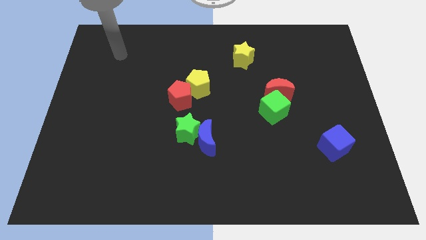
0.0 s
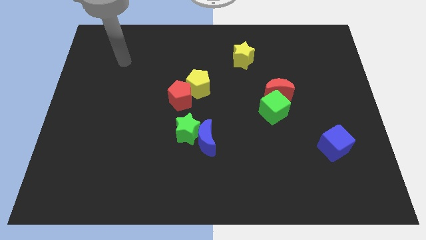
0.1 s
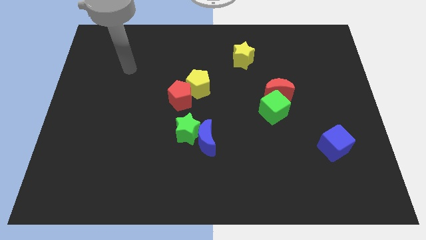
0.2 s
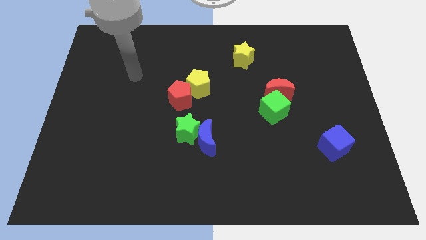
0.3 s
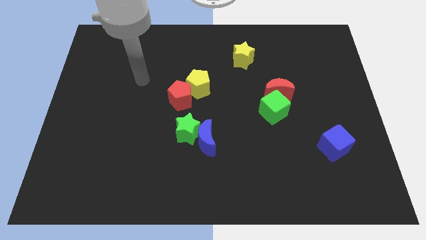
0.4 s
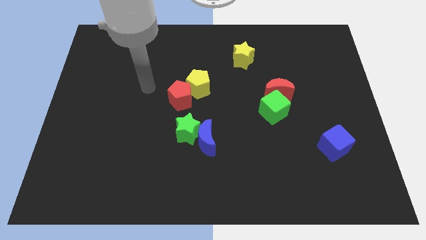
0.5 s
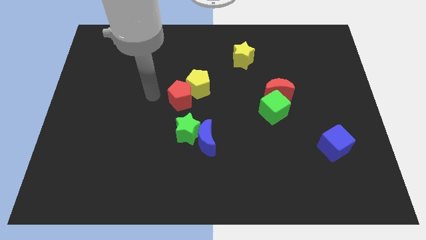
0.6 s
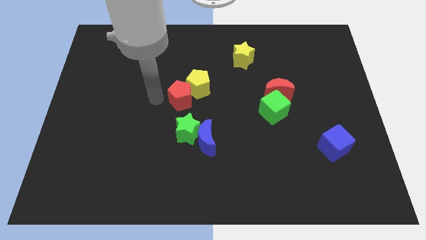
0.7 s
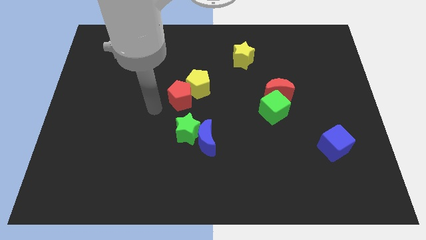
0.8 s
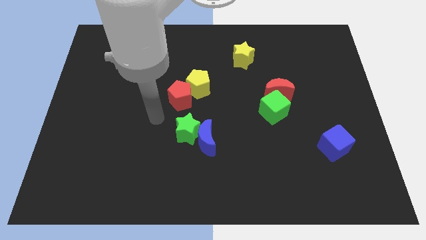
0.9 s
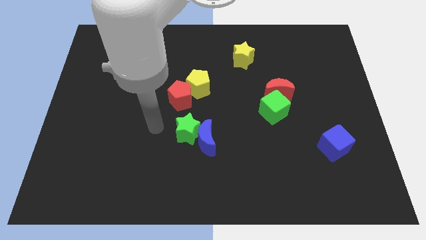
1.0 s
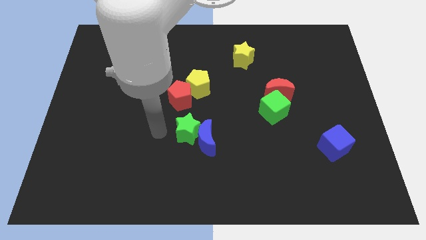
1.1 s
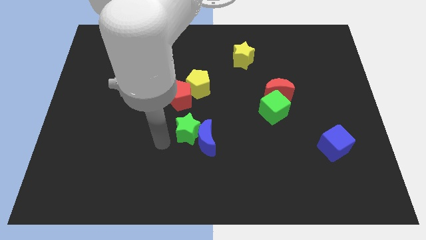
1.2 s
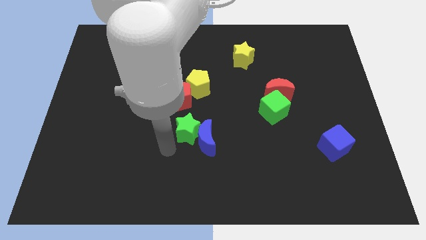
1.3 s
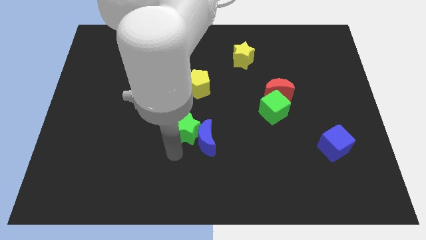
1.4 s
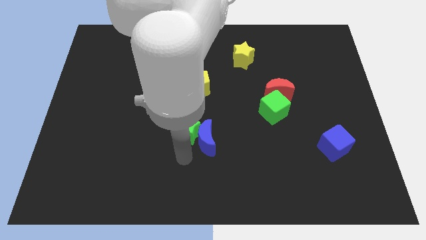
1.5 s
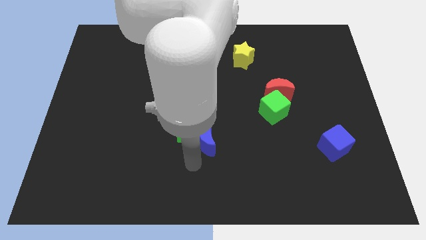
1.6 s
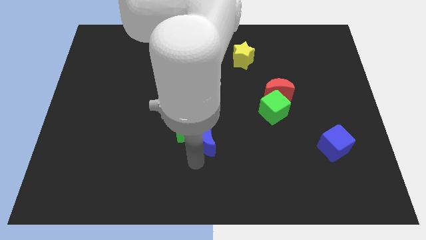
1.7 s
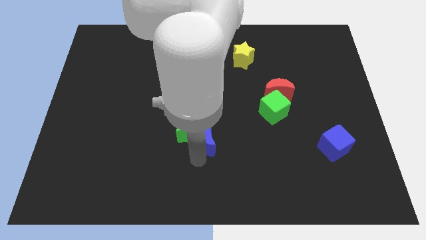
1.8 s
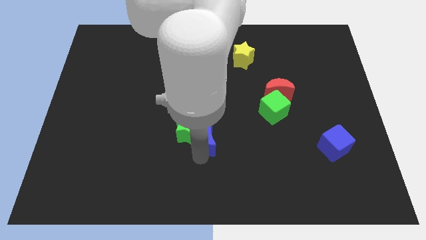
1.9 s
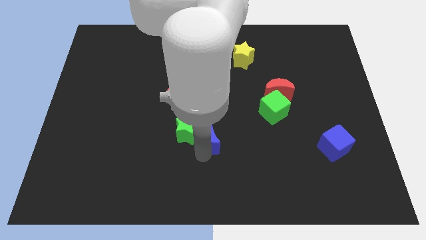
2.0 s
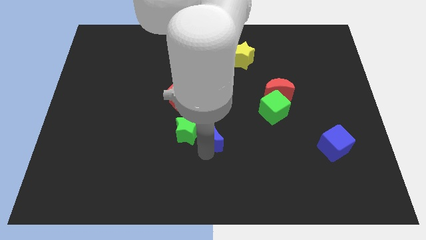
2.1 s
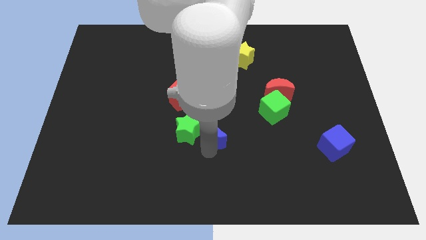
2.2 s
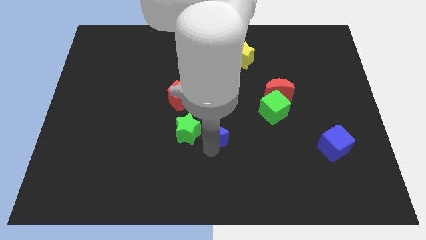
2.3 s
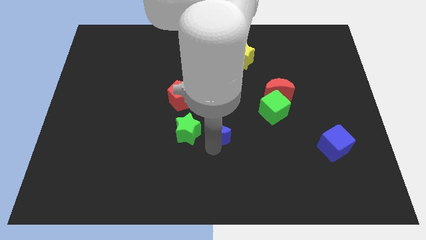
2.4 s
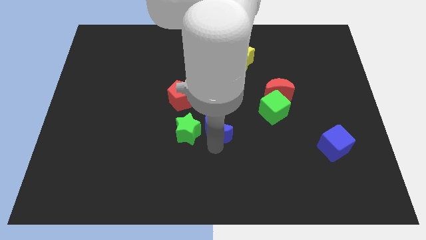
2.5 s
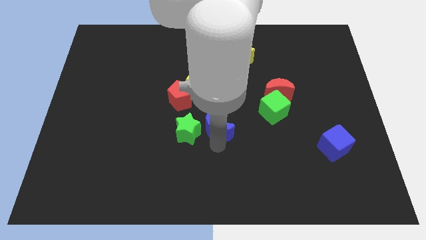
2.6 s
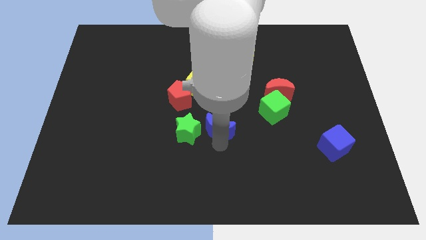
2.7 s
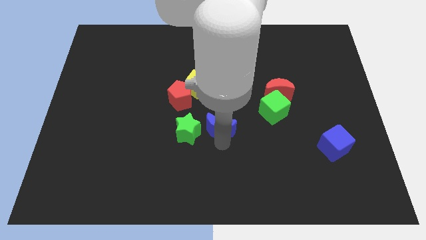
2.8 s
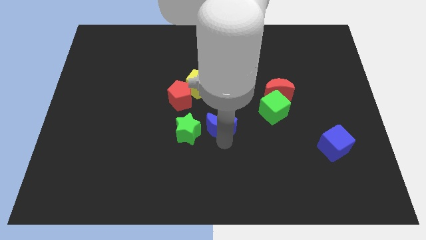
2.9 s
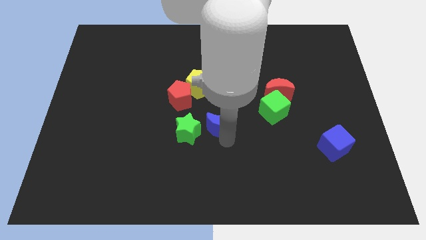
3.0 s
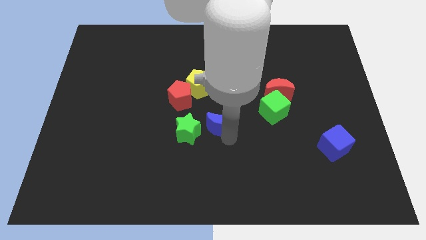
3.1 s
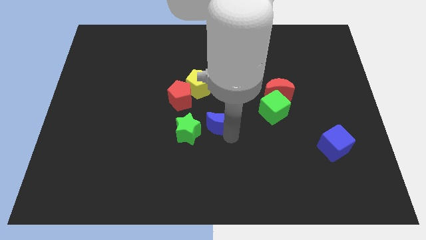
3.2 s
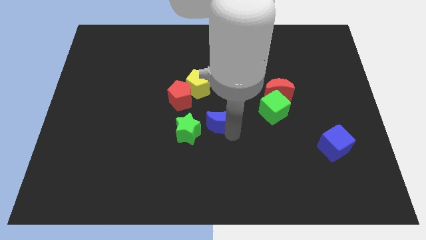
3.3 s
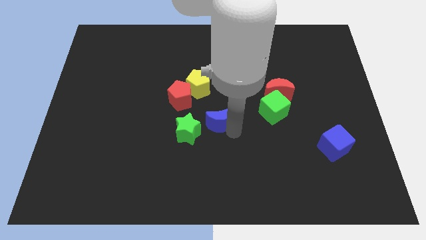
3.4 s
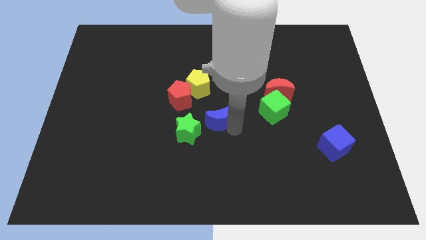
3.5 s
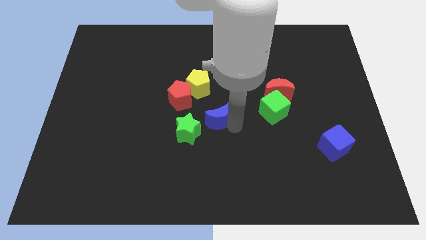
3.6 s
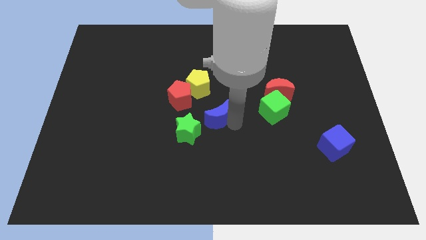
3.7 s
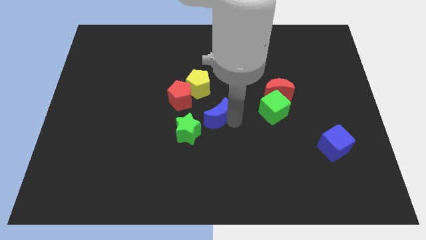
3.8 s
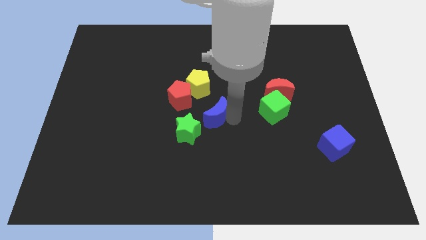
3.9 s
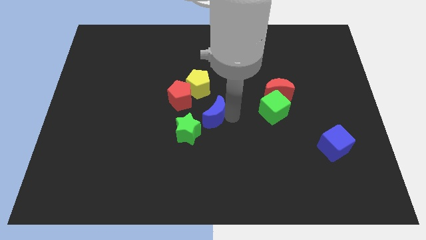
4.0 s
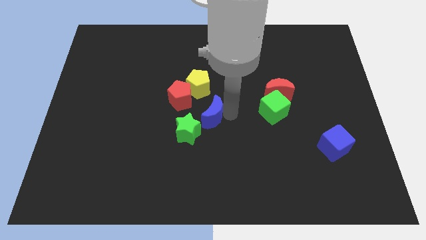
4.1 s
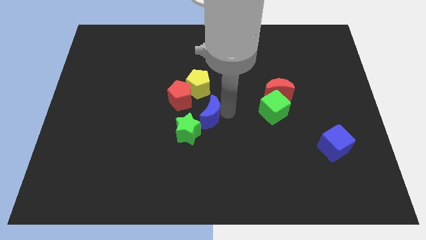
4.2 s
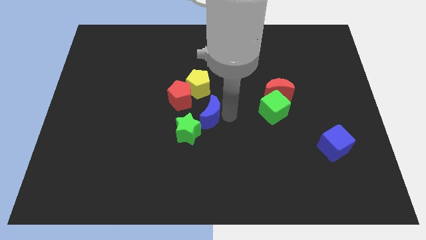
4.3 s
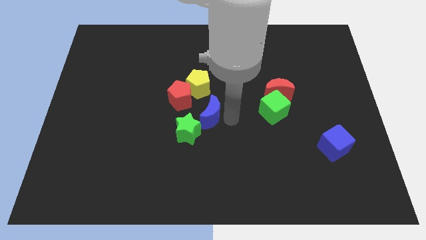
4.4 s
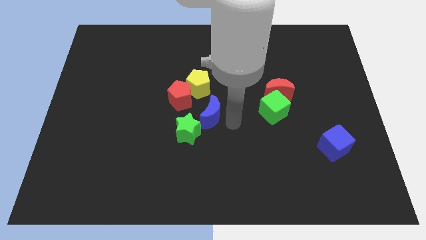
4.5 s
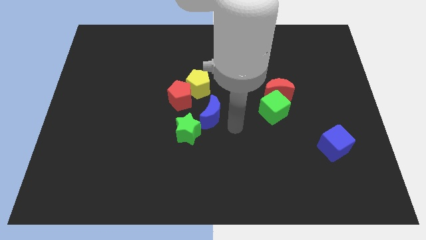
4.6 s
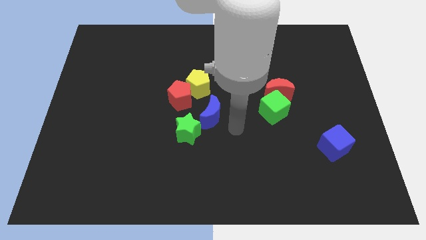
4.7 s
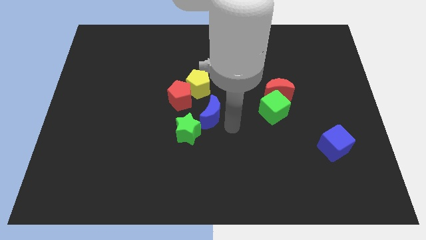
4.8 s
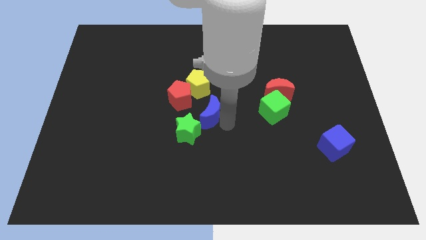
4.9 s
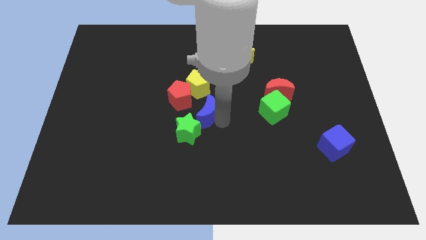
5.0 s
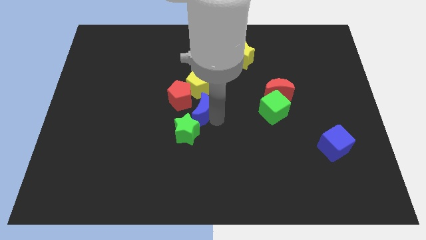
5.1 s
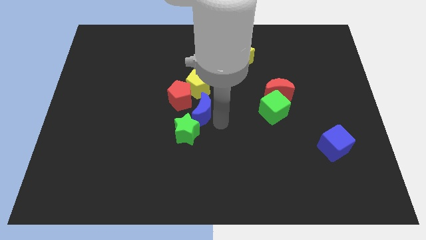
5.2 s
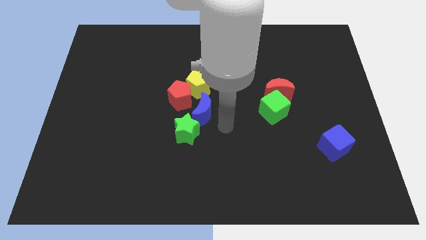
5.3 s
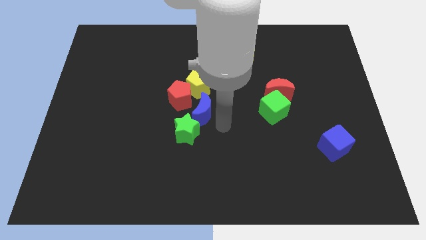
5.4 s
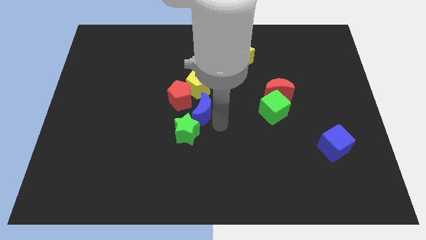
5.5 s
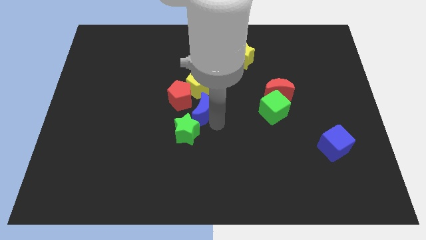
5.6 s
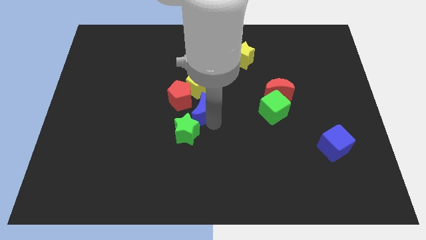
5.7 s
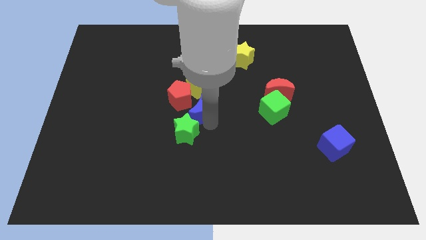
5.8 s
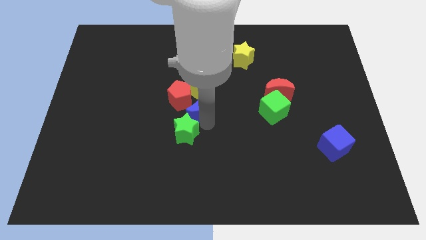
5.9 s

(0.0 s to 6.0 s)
put the blue moon next to the red pentagon

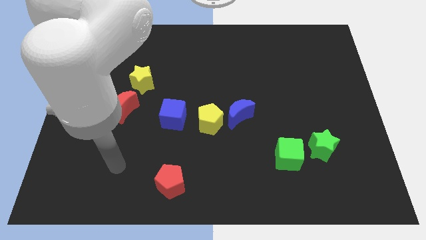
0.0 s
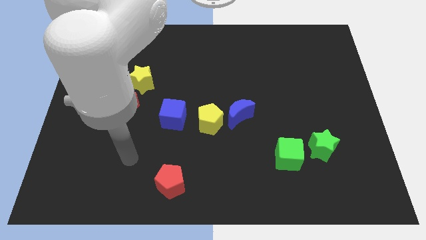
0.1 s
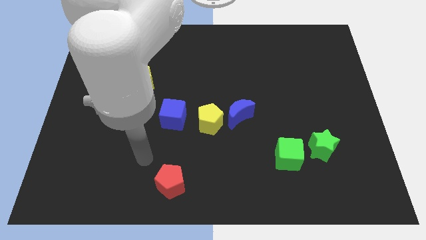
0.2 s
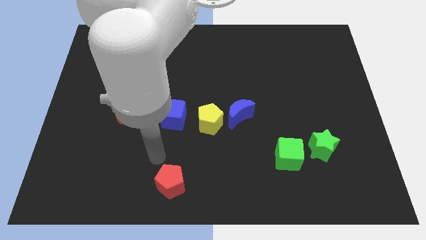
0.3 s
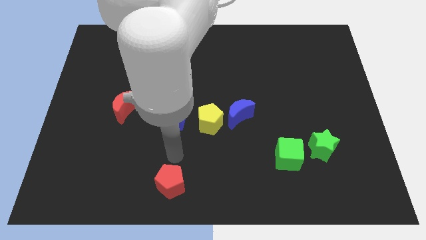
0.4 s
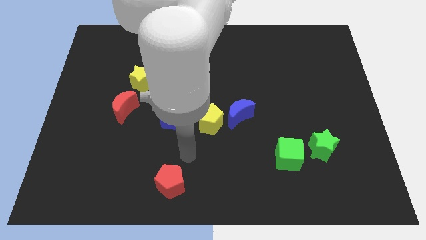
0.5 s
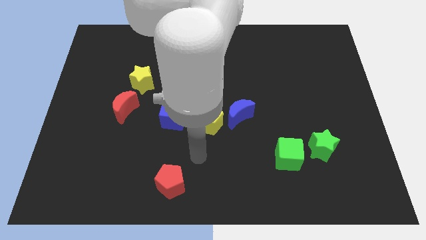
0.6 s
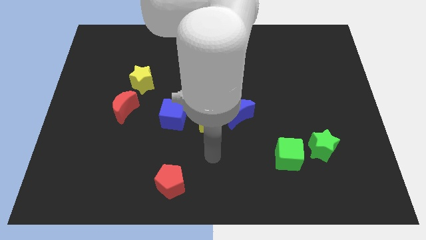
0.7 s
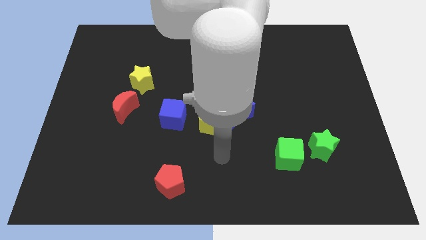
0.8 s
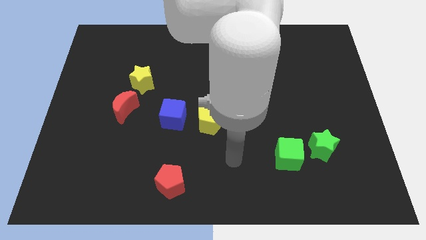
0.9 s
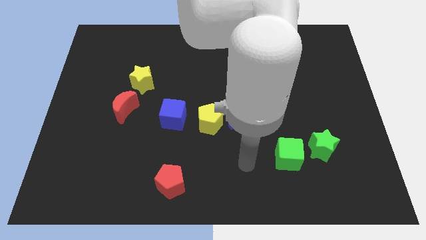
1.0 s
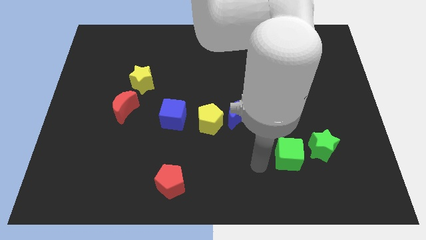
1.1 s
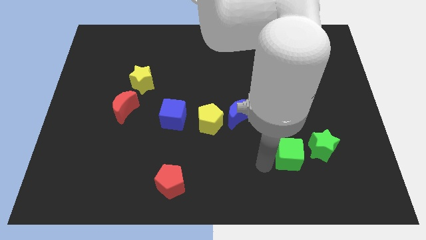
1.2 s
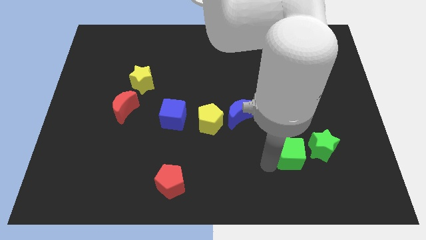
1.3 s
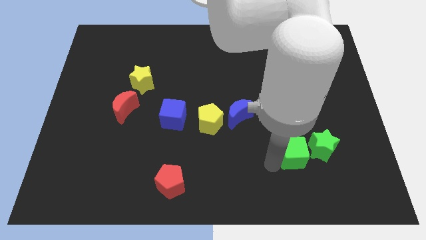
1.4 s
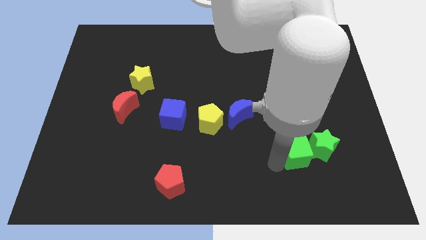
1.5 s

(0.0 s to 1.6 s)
push the green cube close to the green star
